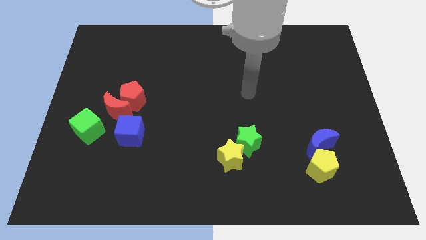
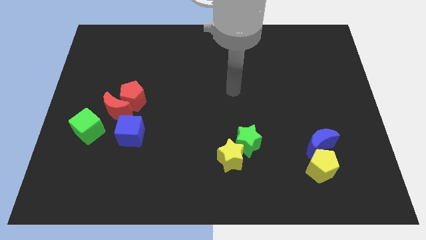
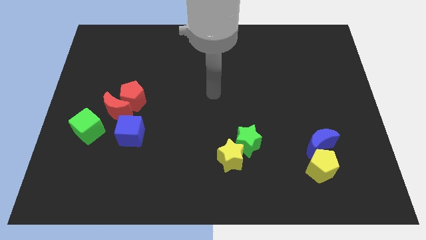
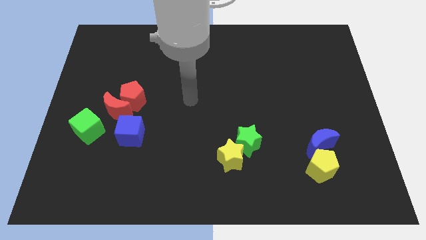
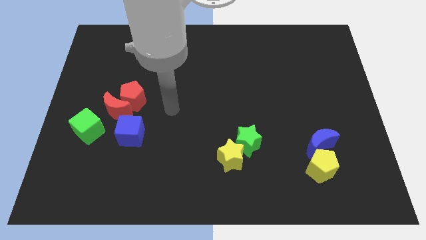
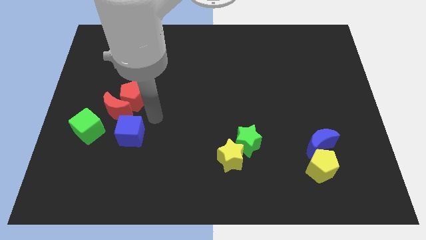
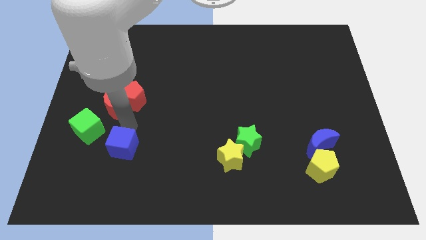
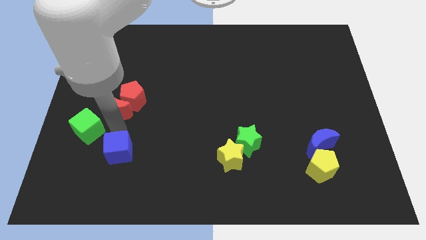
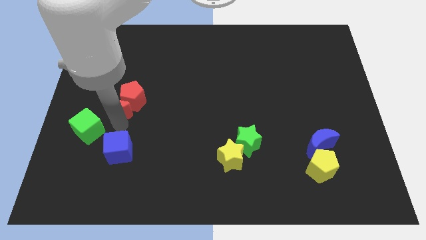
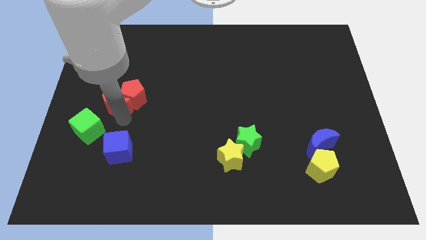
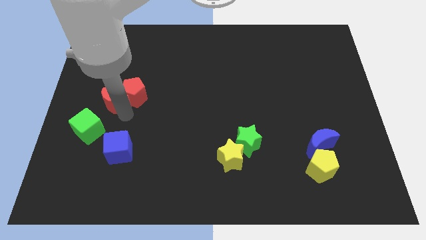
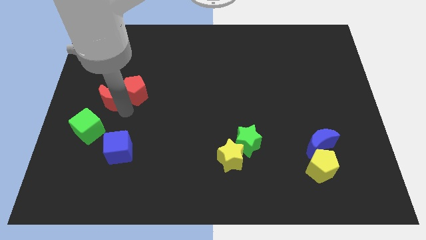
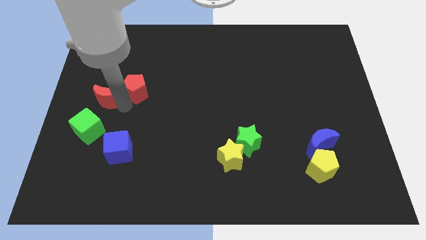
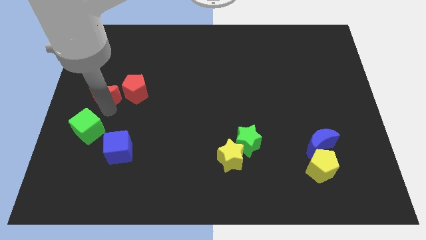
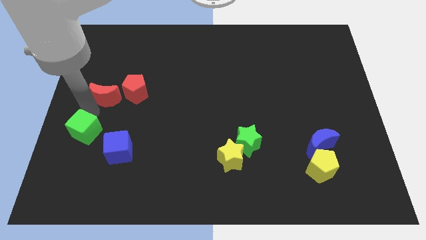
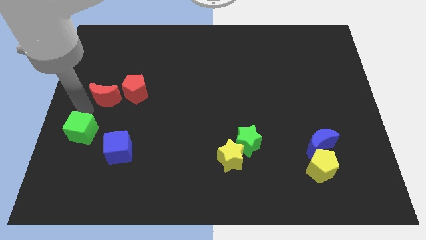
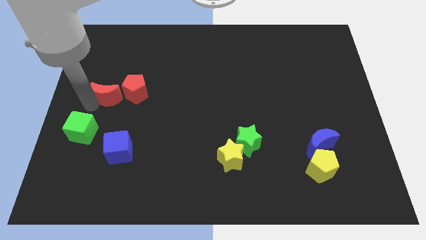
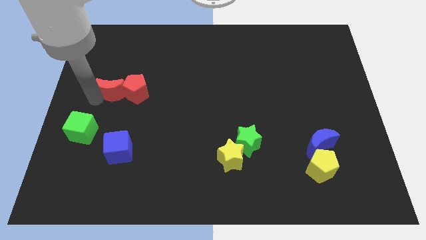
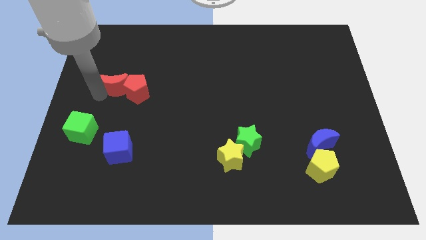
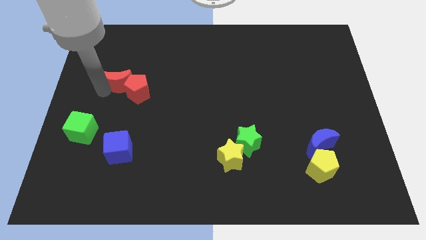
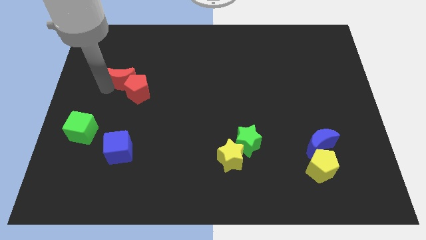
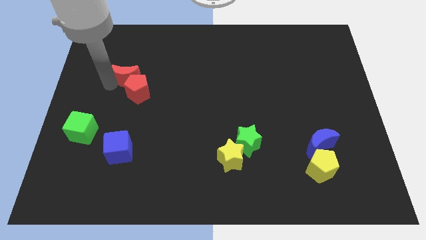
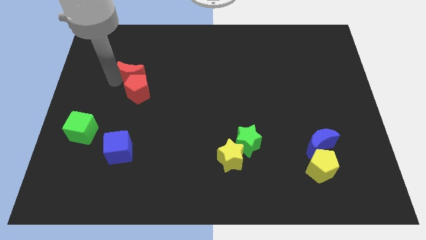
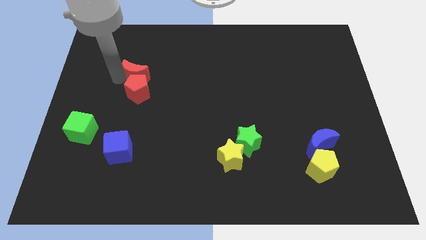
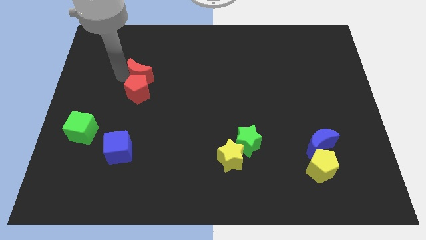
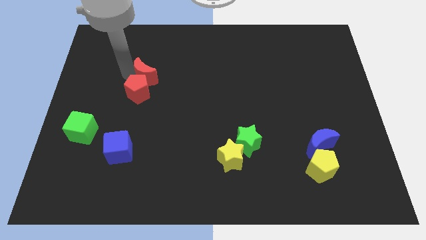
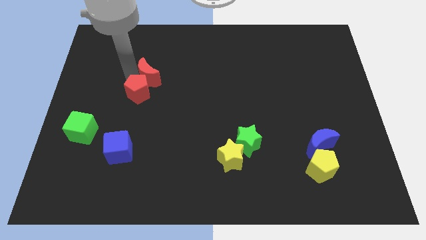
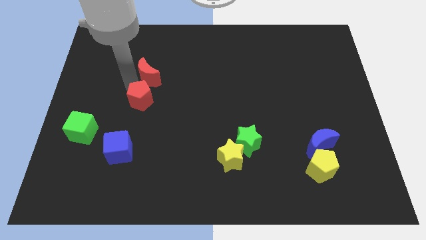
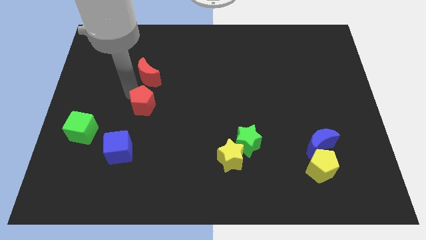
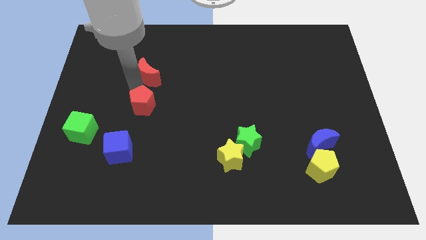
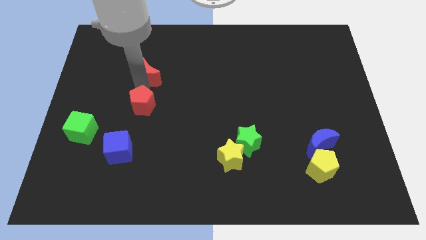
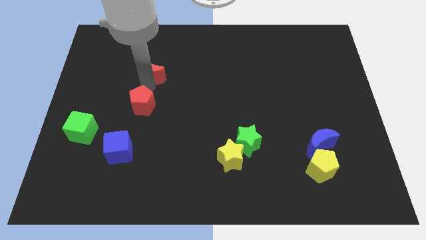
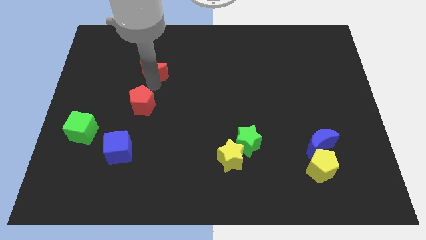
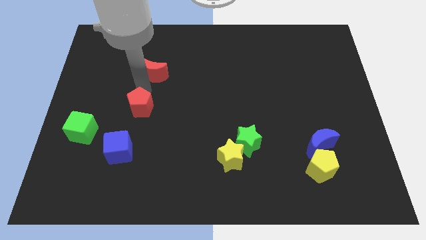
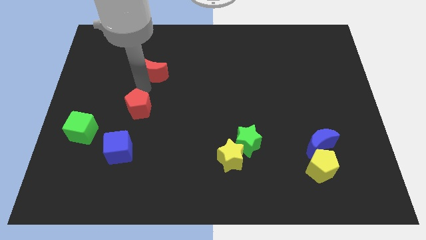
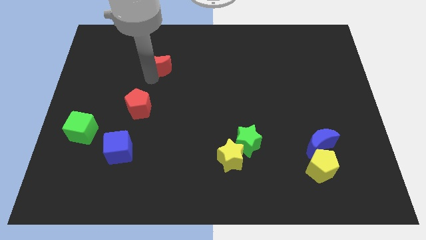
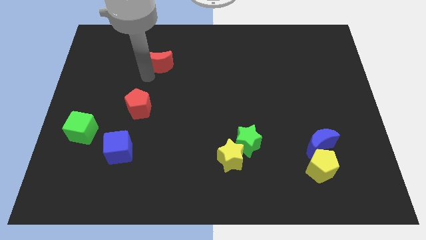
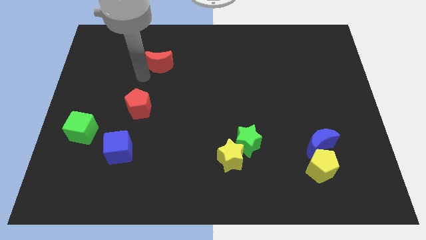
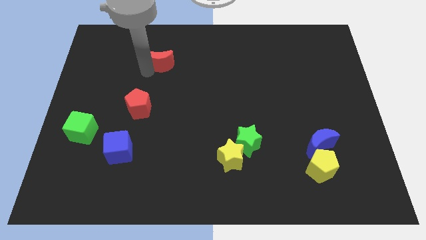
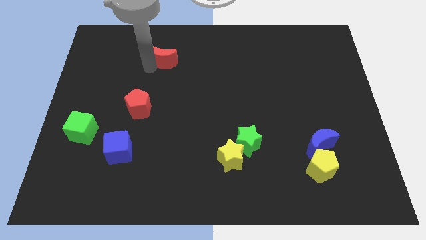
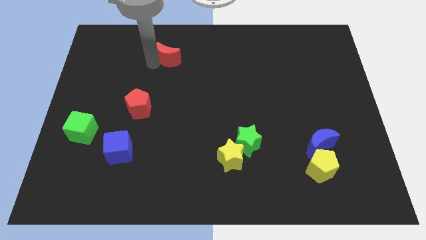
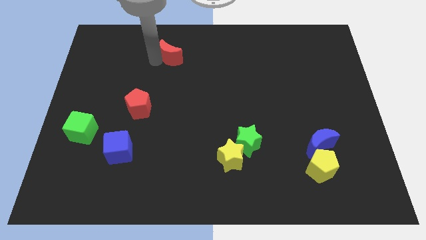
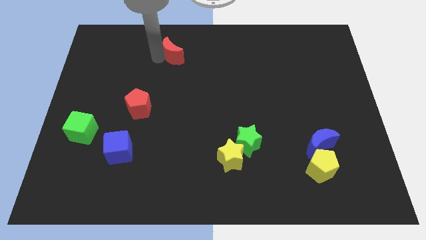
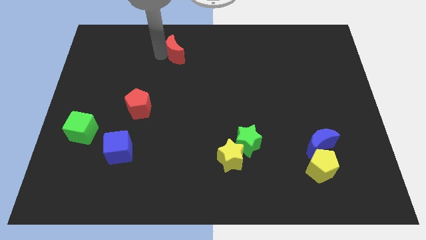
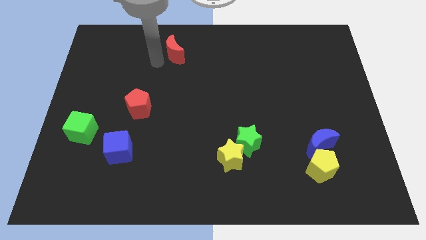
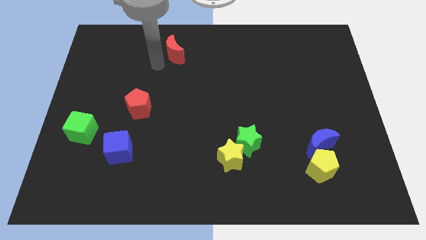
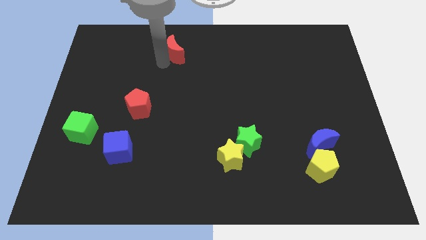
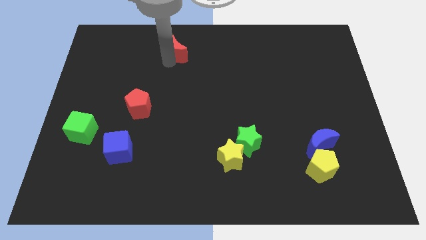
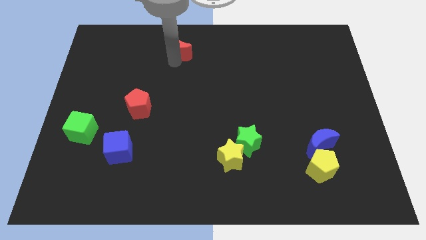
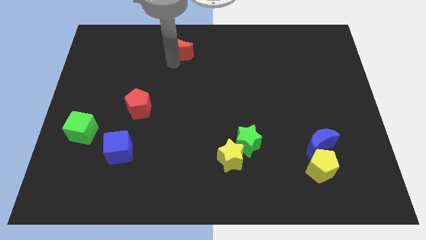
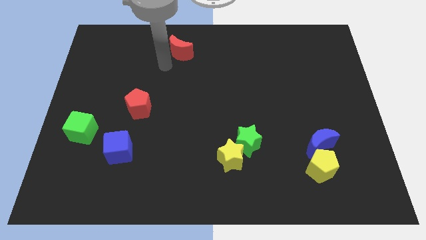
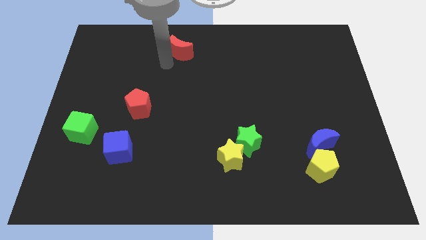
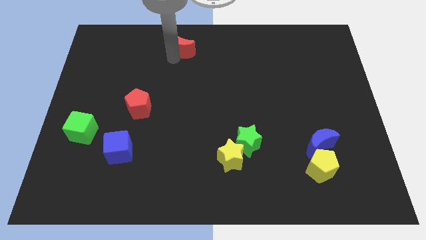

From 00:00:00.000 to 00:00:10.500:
push the red moon to the towards your base

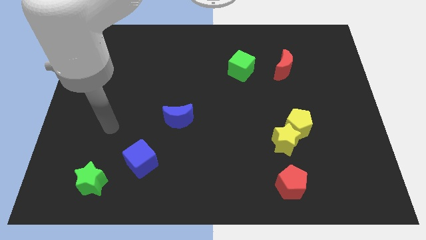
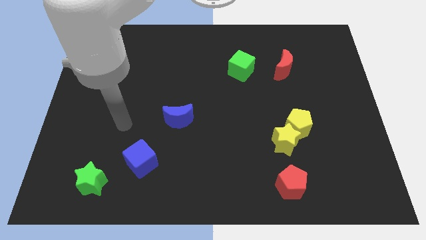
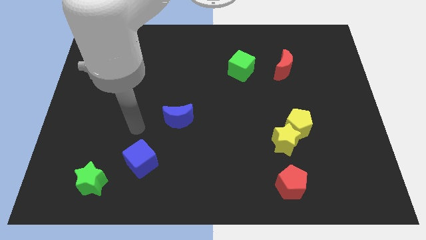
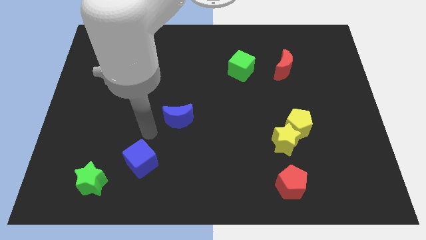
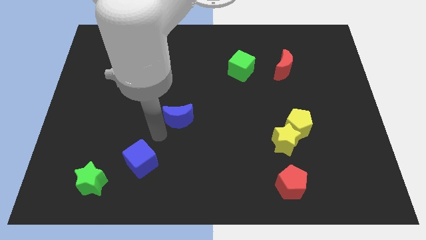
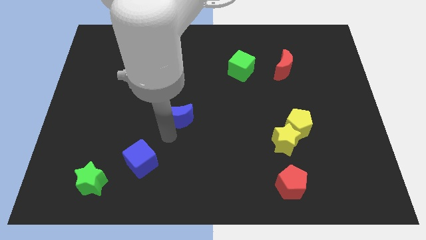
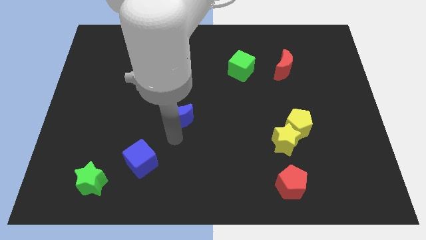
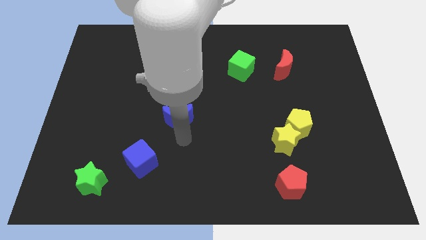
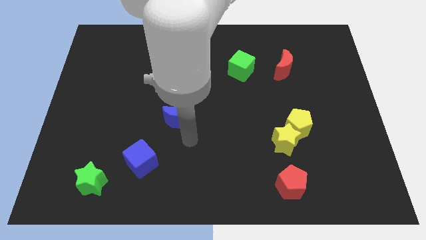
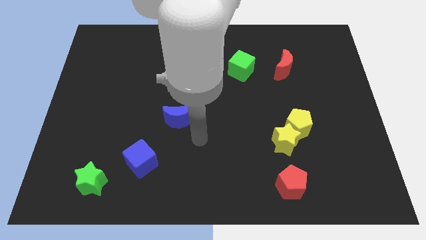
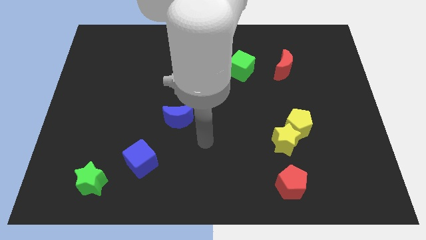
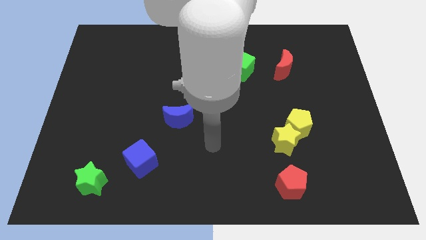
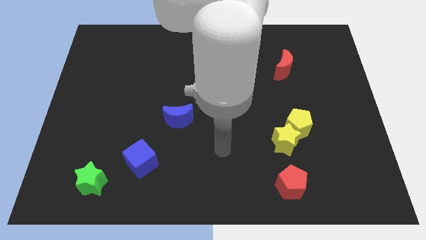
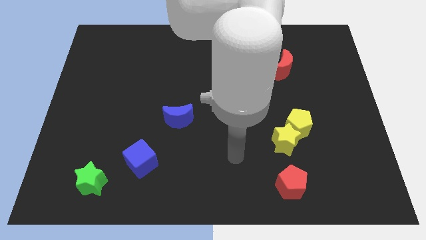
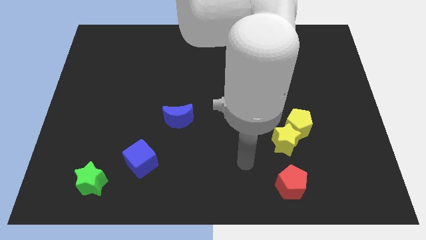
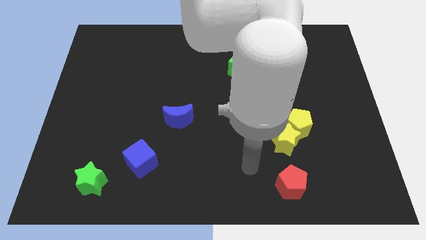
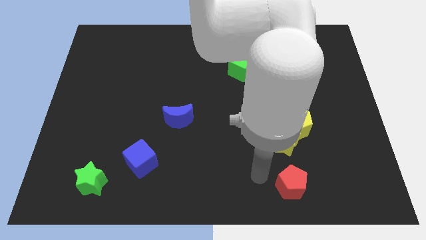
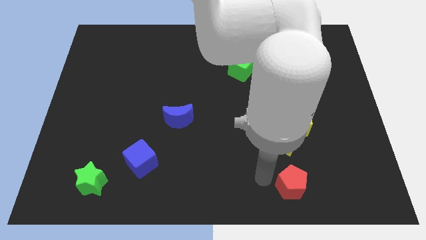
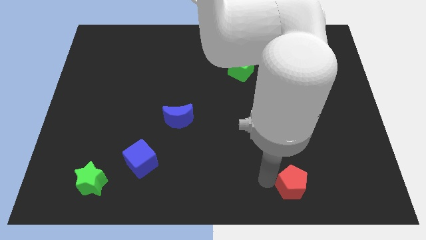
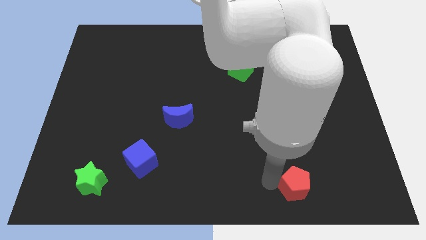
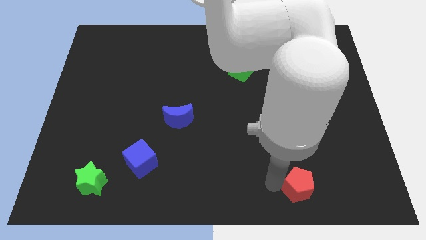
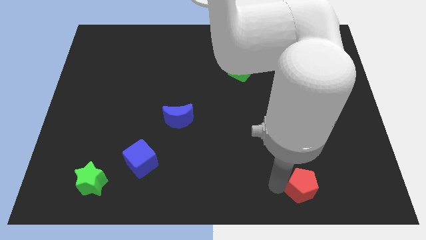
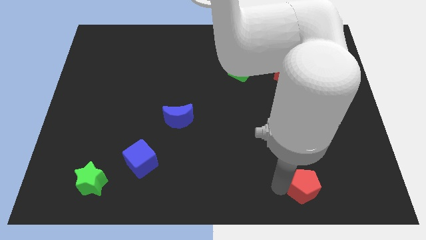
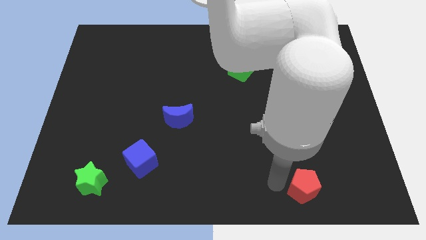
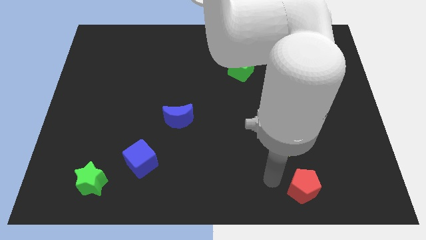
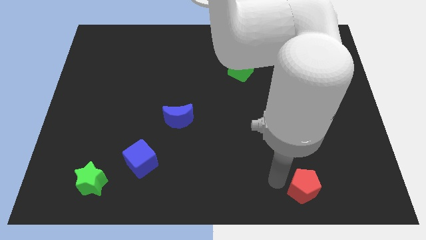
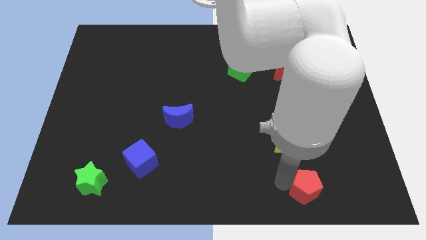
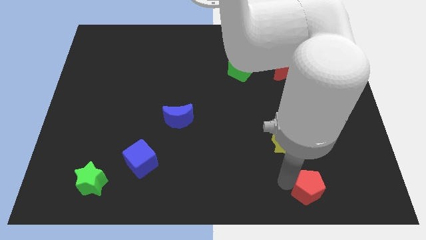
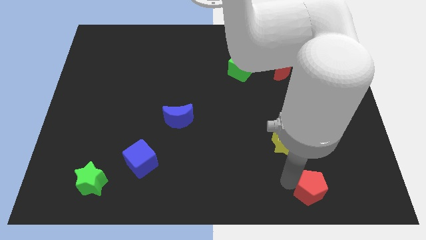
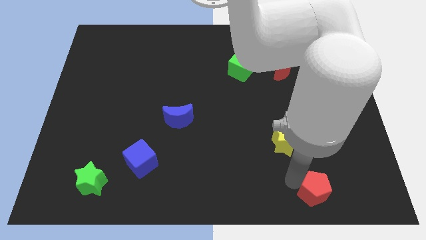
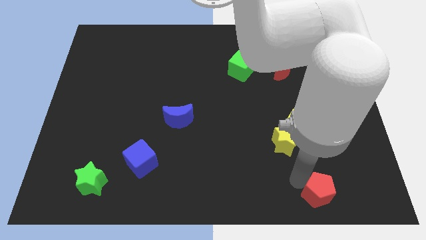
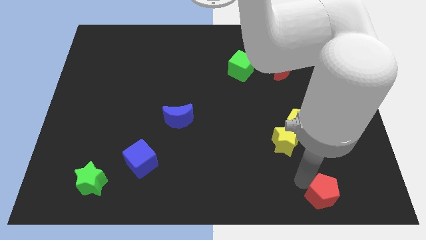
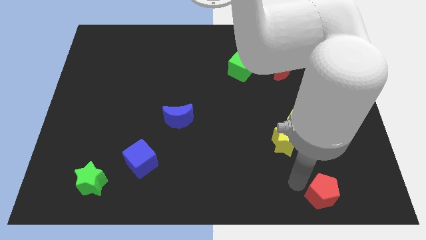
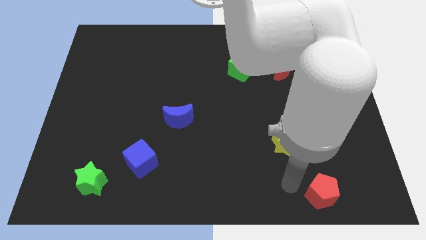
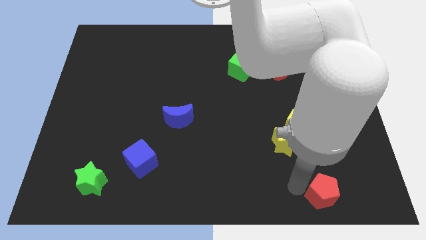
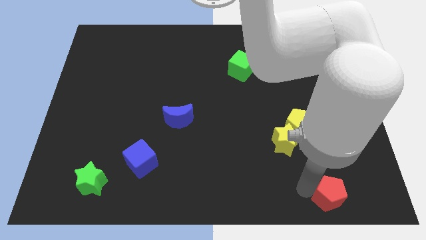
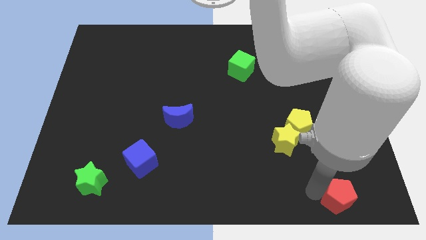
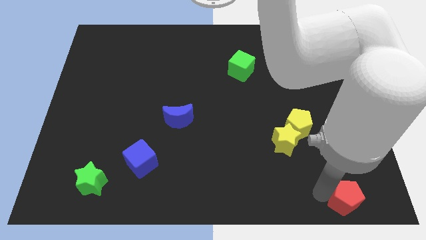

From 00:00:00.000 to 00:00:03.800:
slide the red pentagon to the bottom right corner
